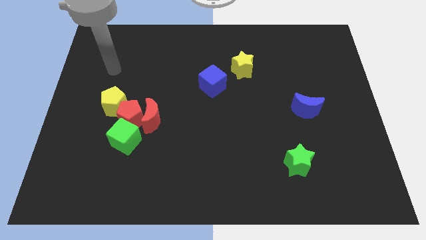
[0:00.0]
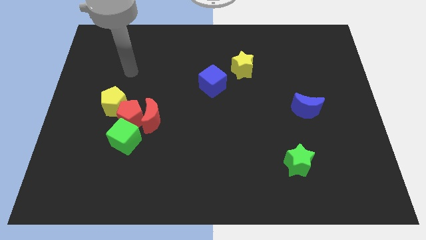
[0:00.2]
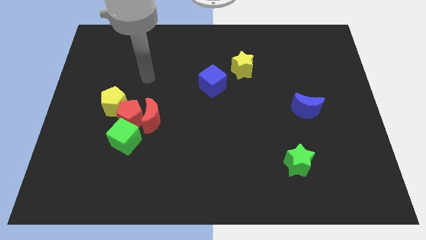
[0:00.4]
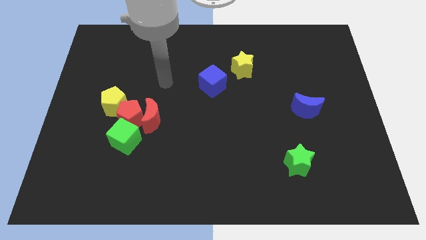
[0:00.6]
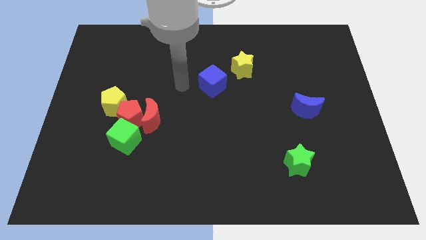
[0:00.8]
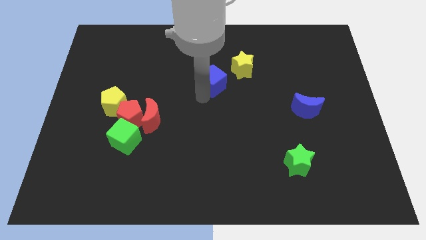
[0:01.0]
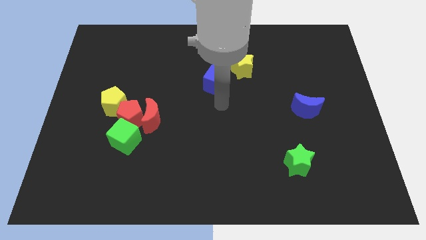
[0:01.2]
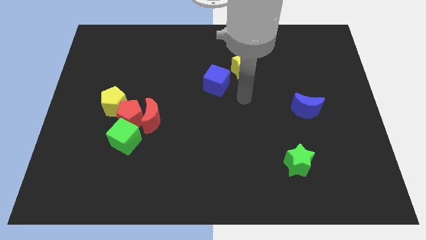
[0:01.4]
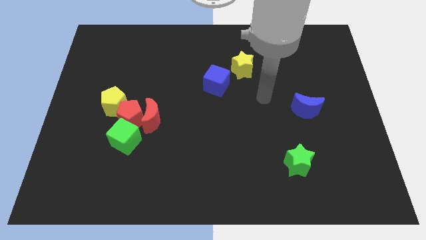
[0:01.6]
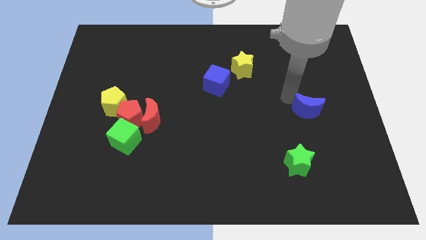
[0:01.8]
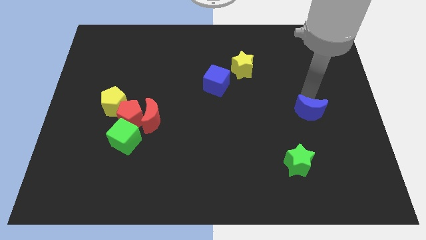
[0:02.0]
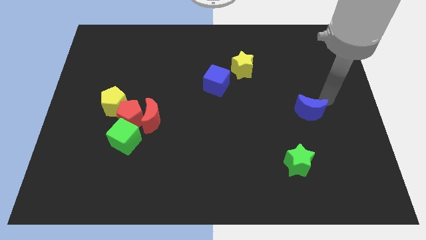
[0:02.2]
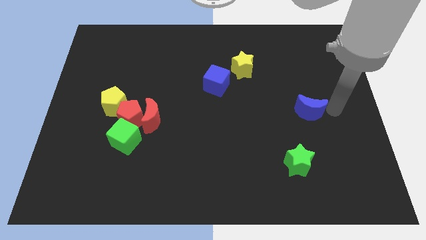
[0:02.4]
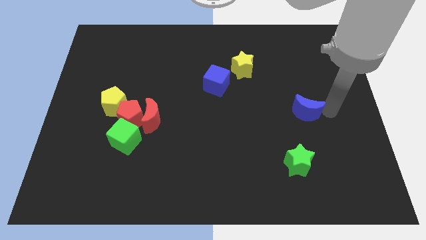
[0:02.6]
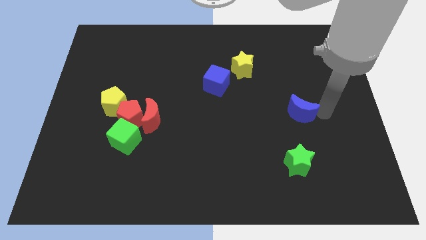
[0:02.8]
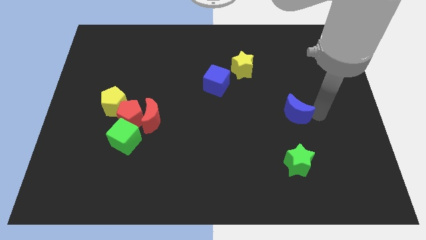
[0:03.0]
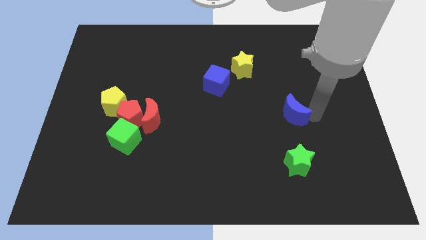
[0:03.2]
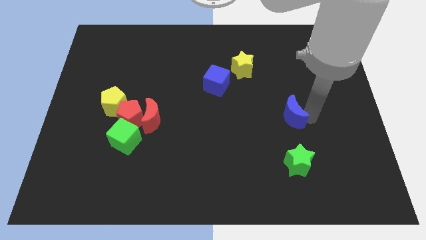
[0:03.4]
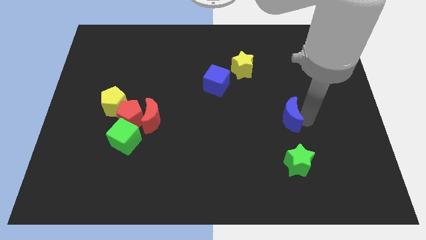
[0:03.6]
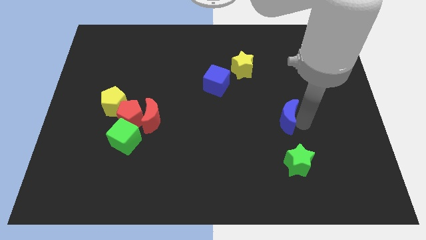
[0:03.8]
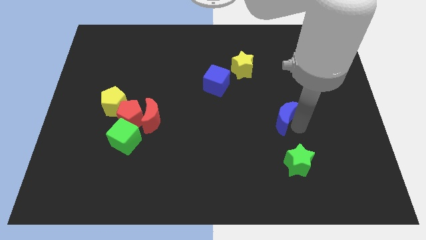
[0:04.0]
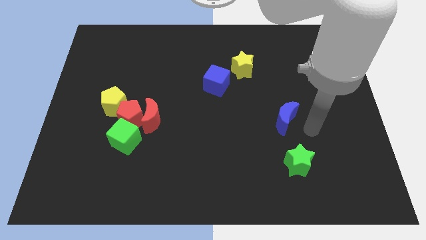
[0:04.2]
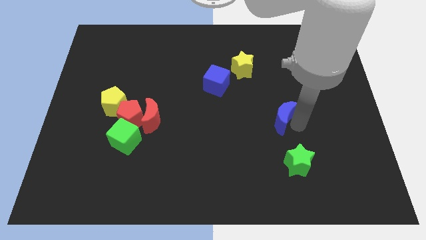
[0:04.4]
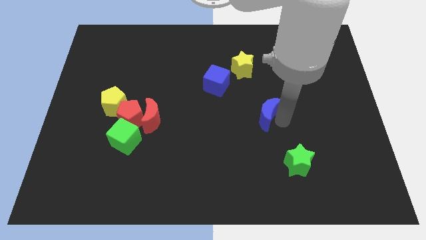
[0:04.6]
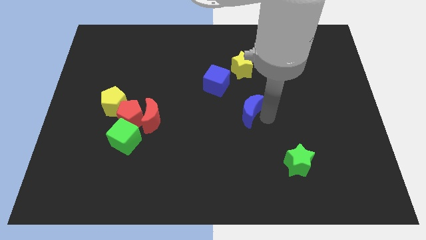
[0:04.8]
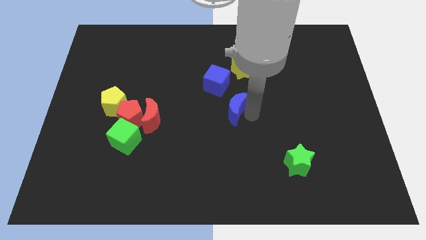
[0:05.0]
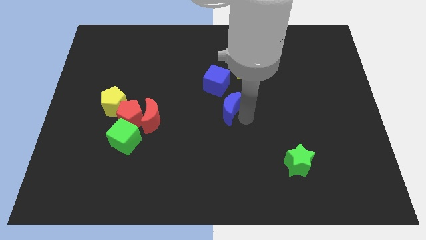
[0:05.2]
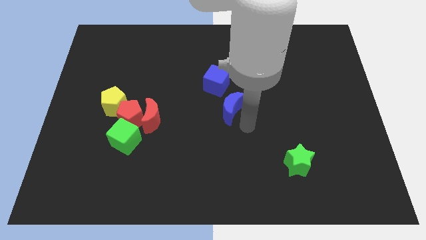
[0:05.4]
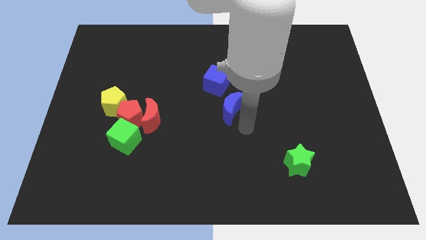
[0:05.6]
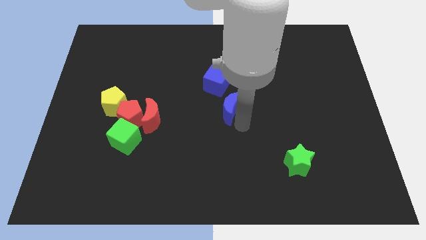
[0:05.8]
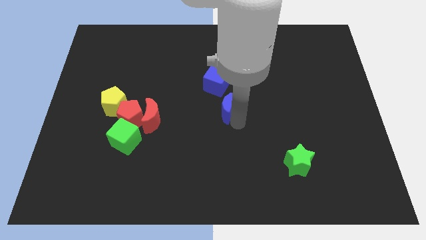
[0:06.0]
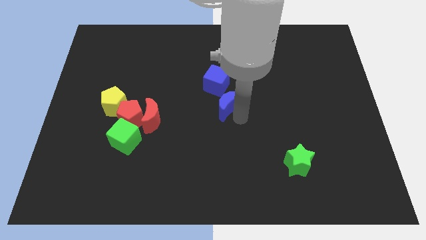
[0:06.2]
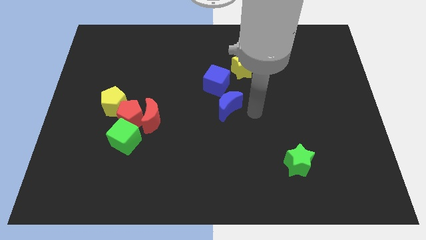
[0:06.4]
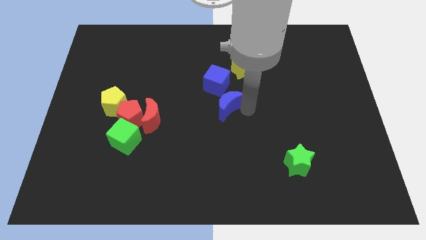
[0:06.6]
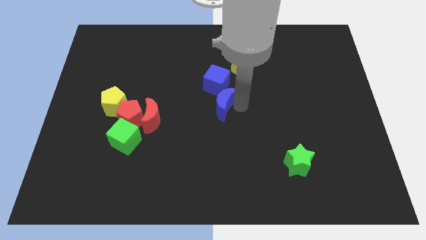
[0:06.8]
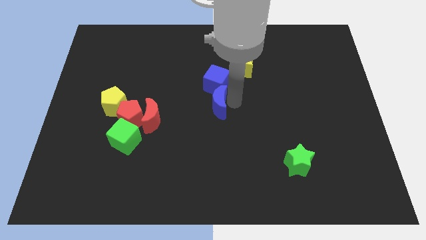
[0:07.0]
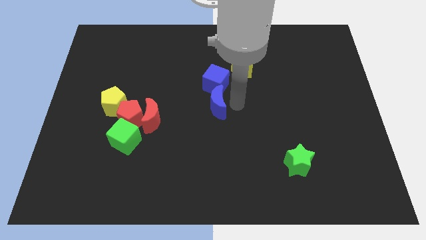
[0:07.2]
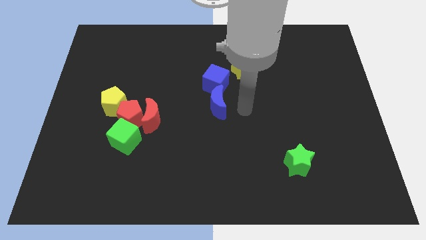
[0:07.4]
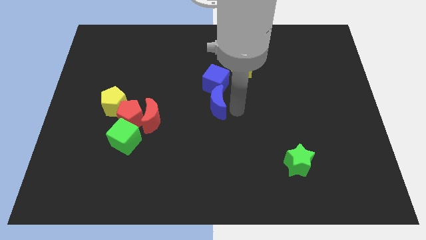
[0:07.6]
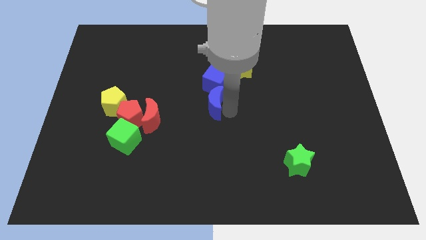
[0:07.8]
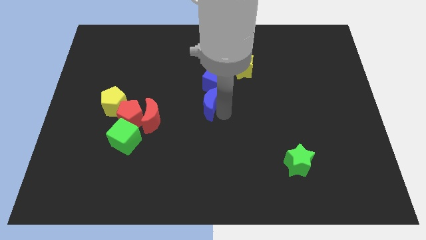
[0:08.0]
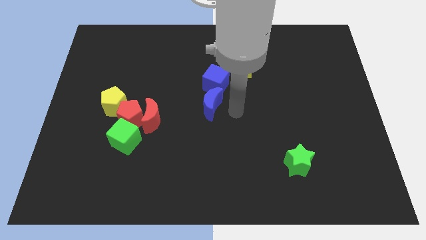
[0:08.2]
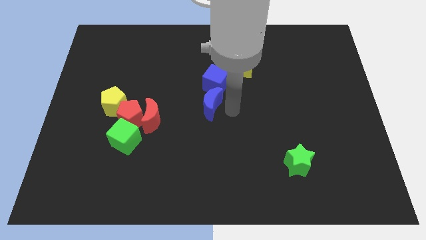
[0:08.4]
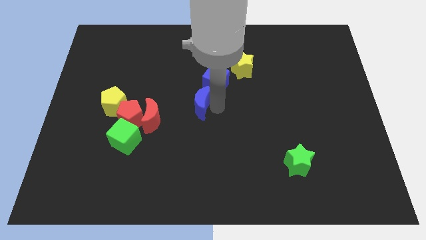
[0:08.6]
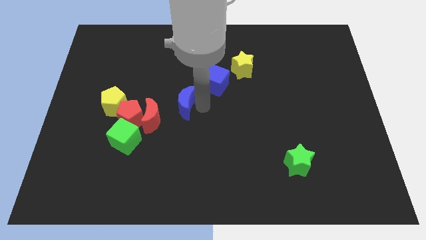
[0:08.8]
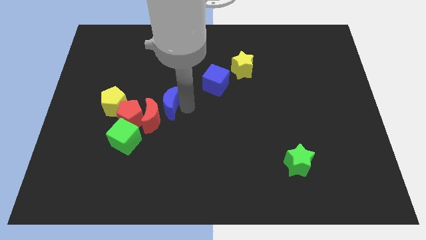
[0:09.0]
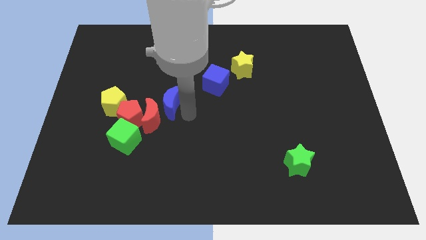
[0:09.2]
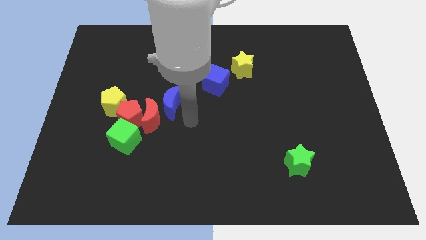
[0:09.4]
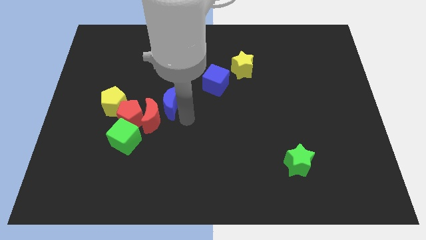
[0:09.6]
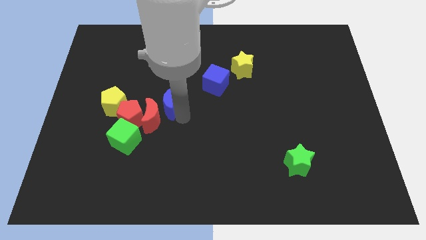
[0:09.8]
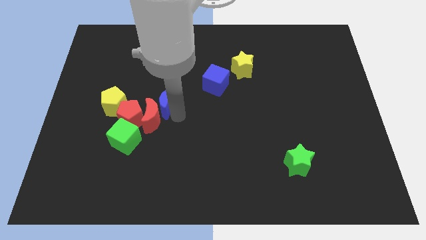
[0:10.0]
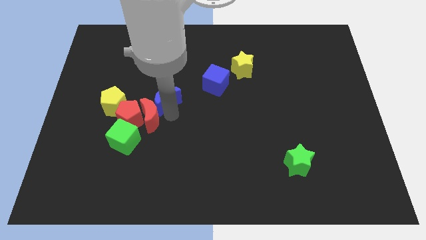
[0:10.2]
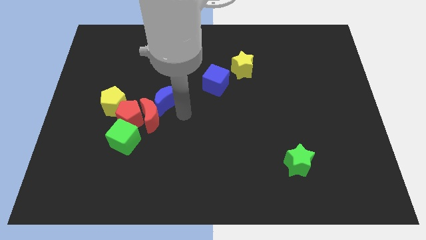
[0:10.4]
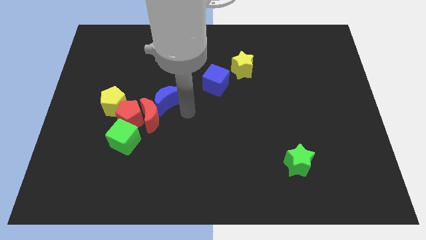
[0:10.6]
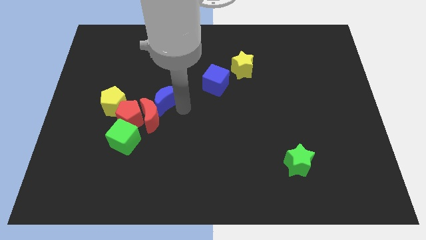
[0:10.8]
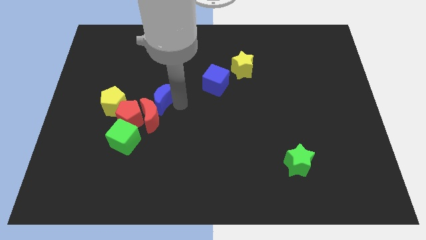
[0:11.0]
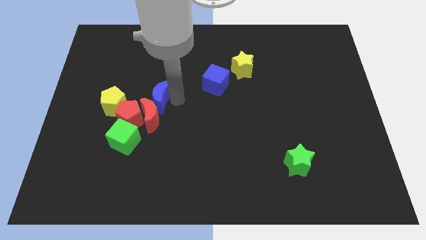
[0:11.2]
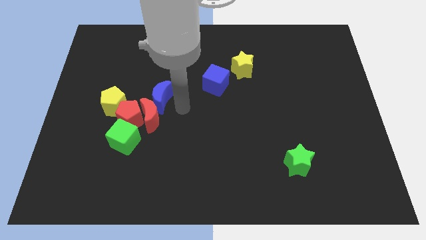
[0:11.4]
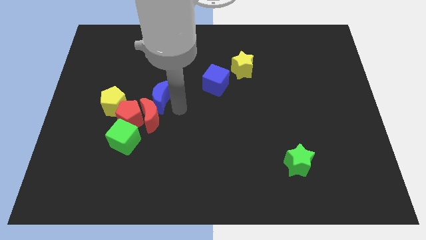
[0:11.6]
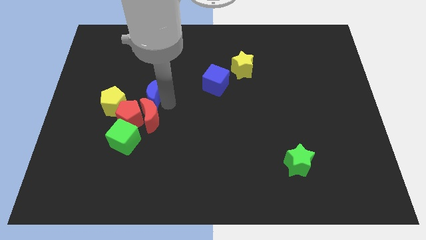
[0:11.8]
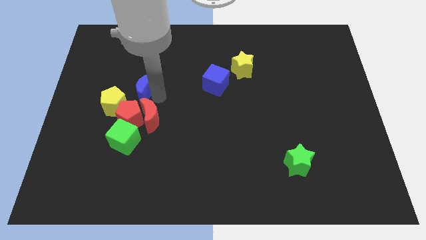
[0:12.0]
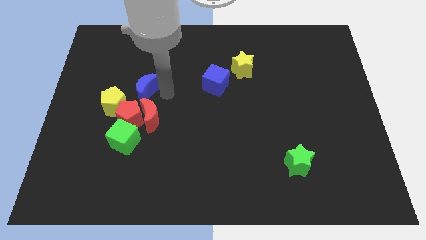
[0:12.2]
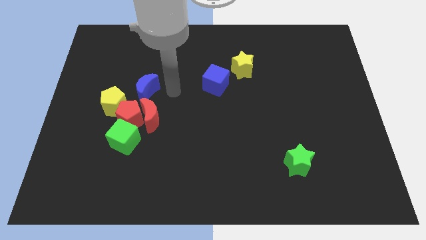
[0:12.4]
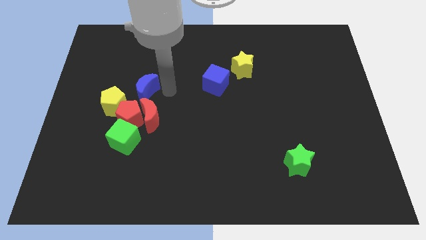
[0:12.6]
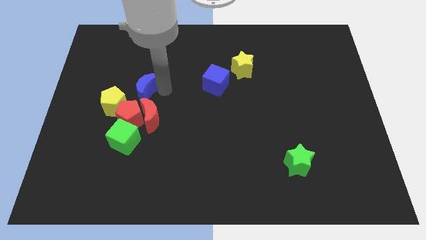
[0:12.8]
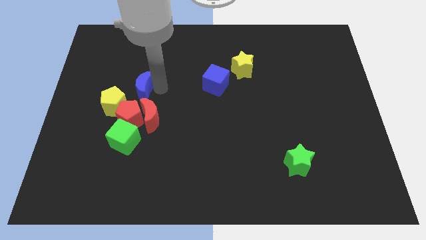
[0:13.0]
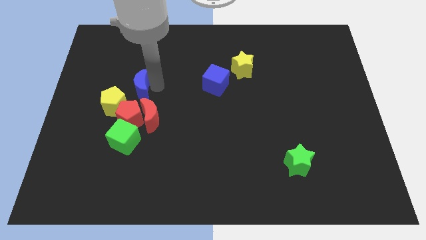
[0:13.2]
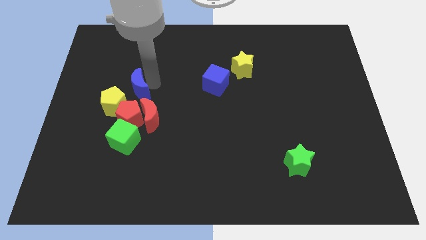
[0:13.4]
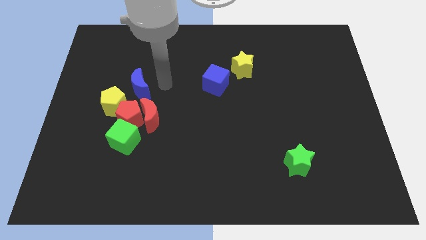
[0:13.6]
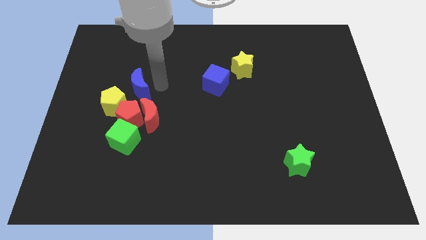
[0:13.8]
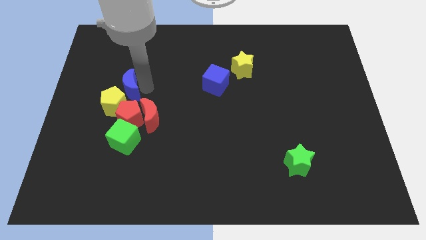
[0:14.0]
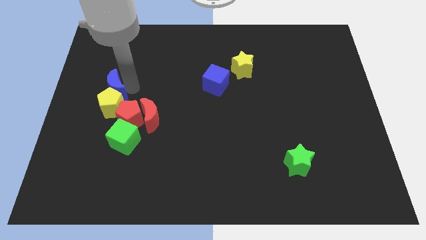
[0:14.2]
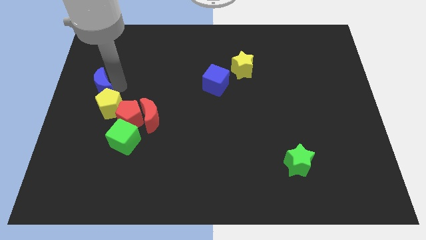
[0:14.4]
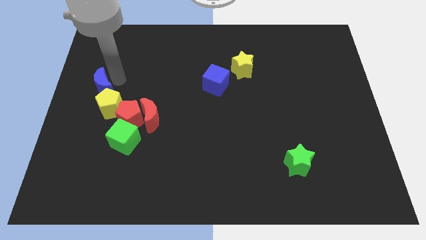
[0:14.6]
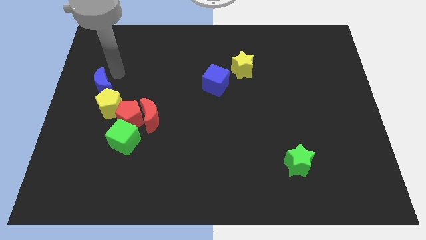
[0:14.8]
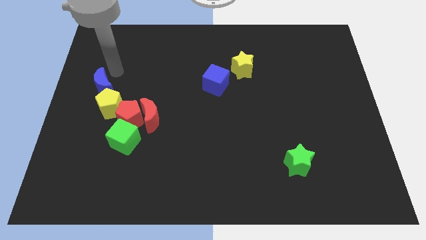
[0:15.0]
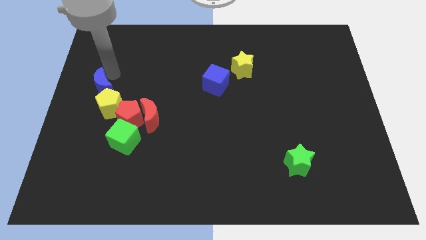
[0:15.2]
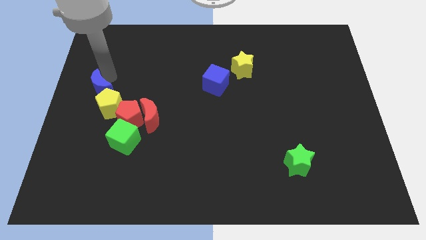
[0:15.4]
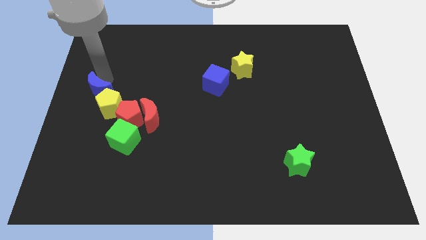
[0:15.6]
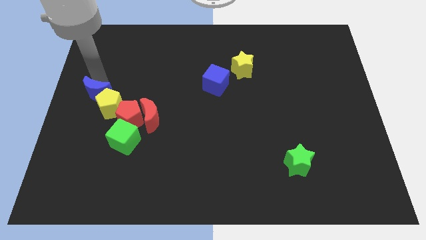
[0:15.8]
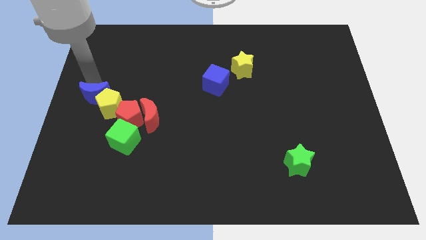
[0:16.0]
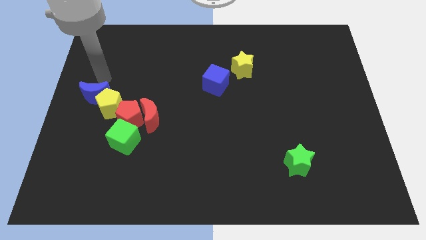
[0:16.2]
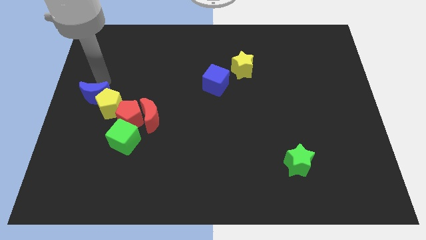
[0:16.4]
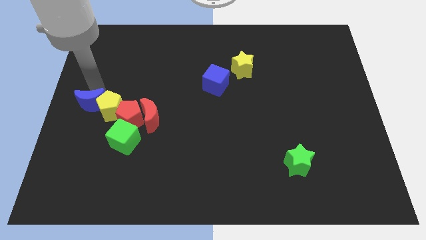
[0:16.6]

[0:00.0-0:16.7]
push the blue moon just left of the red pentagon
